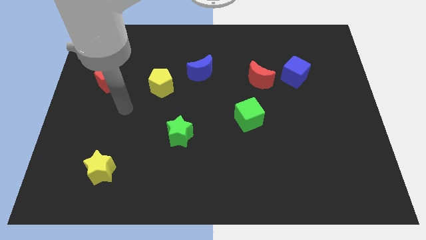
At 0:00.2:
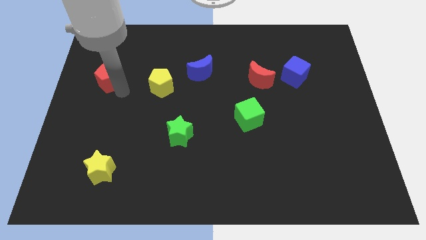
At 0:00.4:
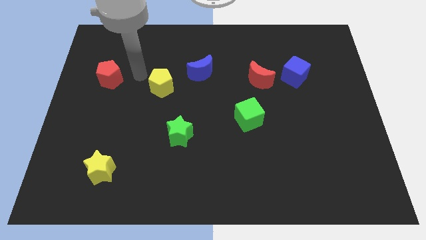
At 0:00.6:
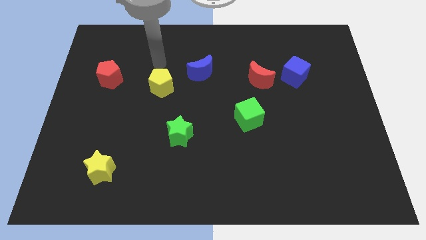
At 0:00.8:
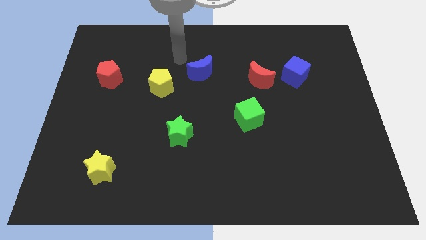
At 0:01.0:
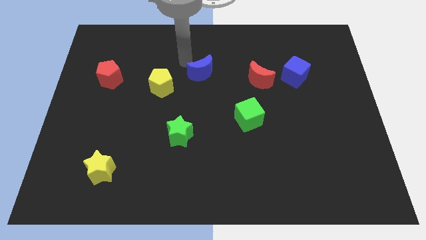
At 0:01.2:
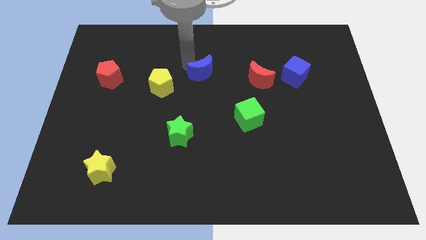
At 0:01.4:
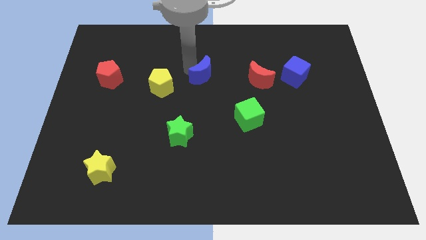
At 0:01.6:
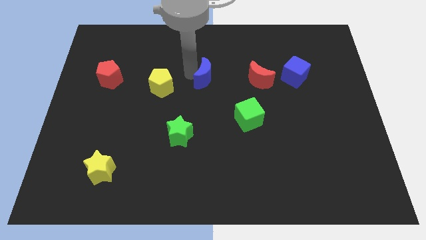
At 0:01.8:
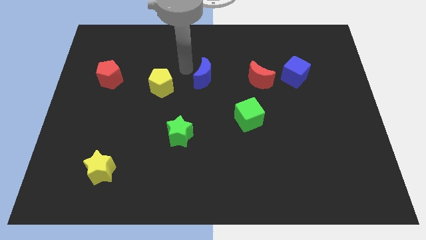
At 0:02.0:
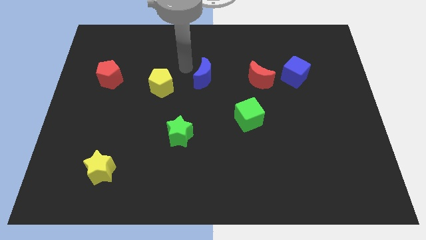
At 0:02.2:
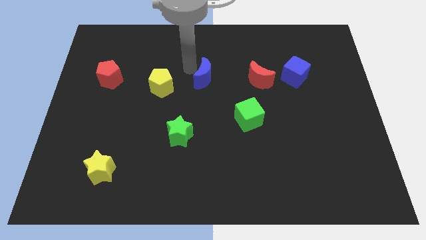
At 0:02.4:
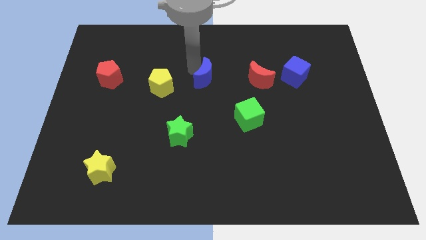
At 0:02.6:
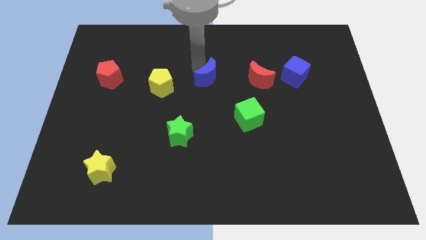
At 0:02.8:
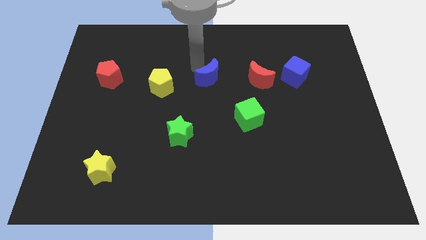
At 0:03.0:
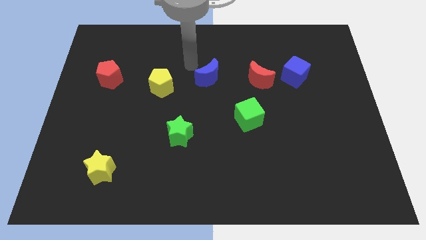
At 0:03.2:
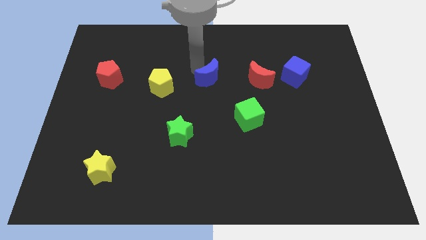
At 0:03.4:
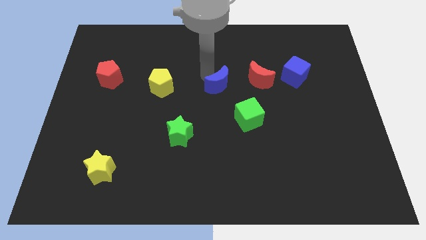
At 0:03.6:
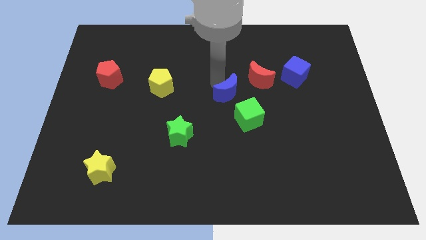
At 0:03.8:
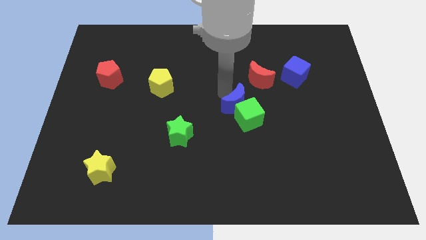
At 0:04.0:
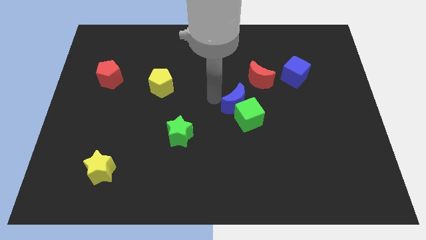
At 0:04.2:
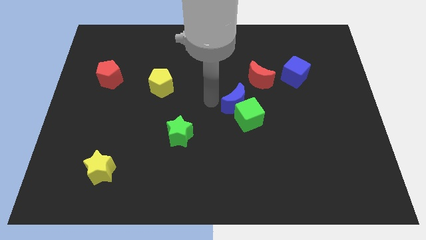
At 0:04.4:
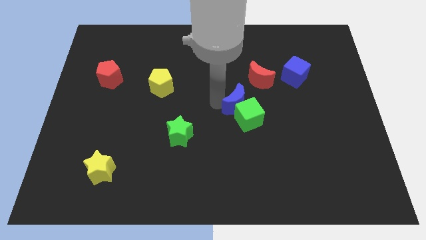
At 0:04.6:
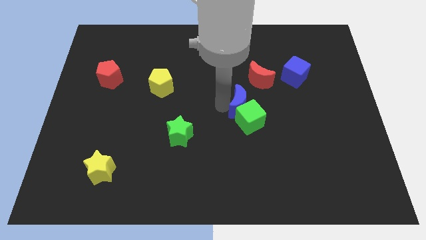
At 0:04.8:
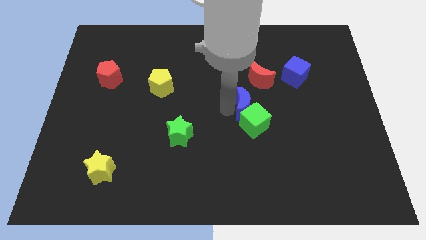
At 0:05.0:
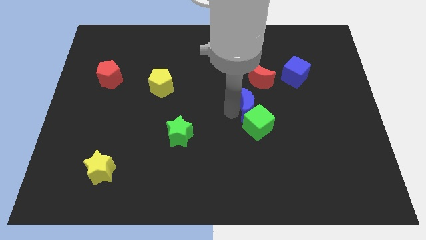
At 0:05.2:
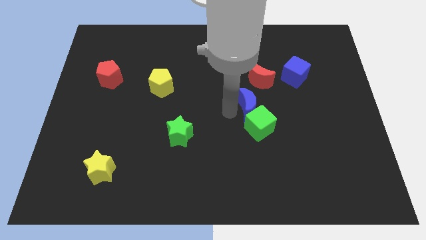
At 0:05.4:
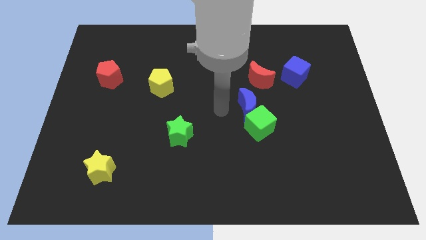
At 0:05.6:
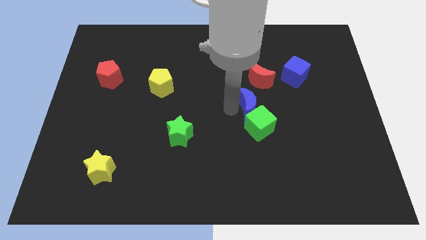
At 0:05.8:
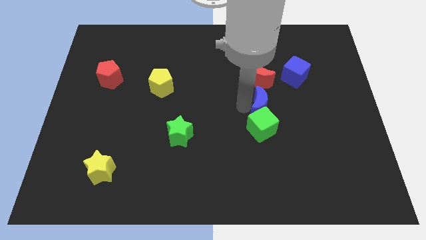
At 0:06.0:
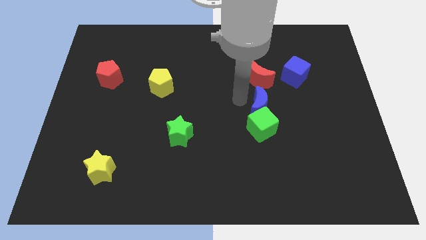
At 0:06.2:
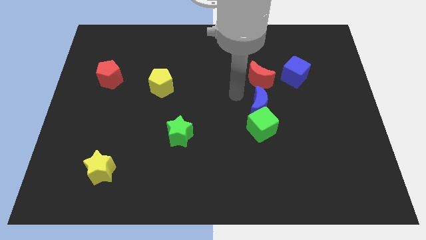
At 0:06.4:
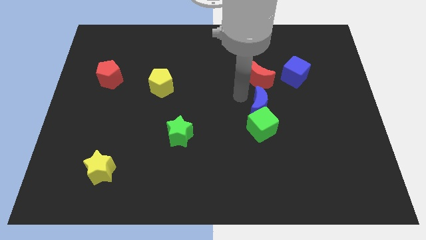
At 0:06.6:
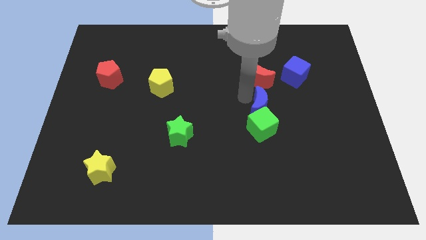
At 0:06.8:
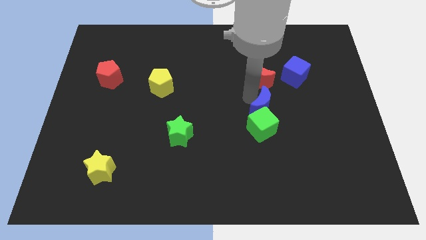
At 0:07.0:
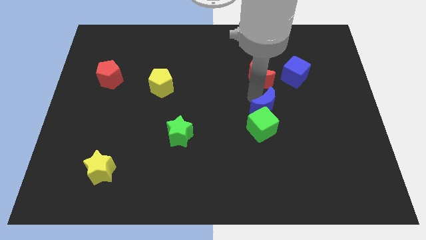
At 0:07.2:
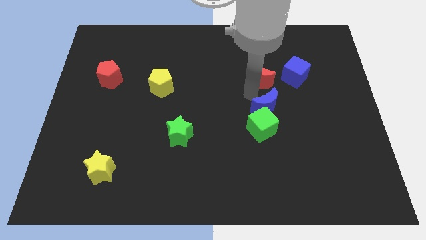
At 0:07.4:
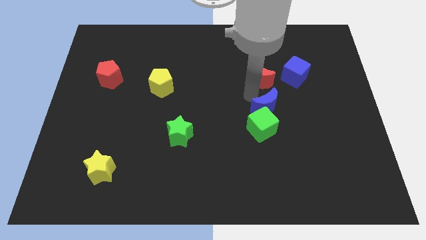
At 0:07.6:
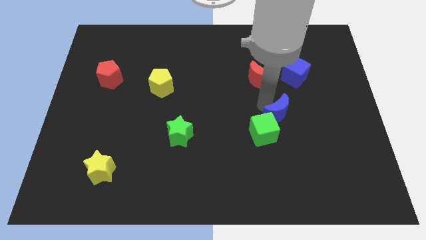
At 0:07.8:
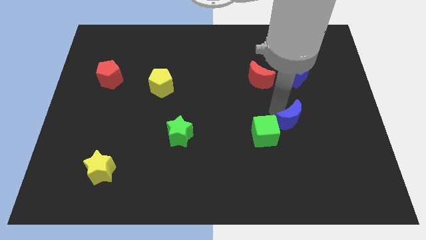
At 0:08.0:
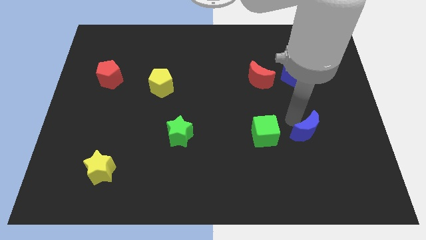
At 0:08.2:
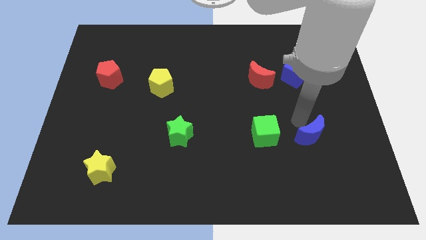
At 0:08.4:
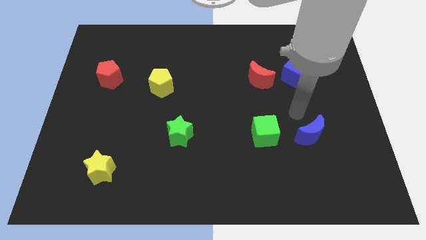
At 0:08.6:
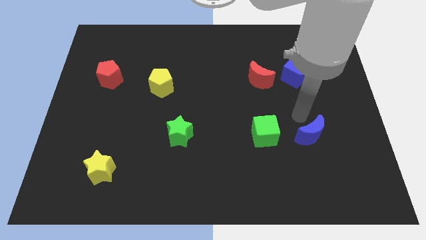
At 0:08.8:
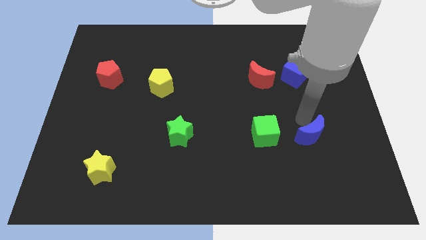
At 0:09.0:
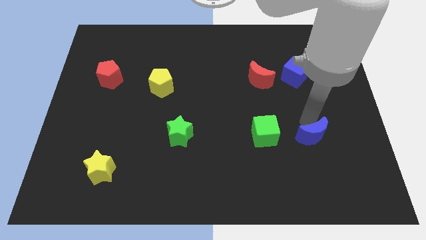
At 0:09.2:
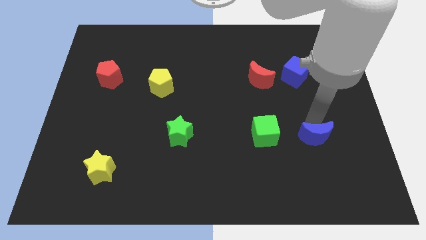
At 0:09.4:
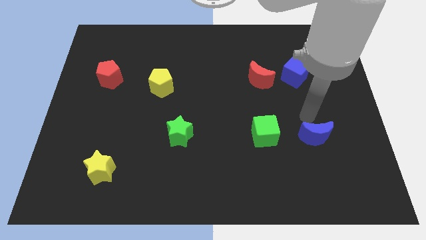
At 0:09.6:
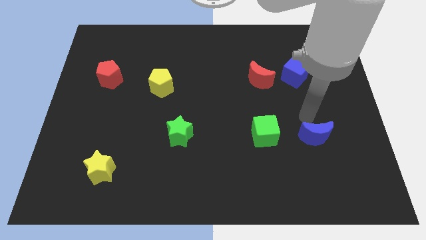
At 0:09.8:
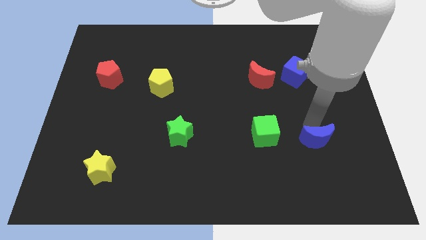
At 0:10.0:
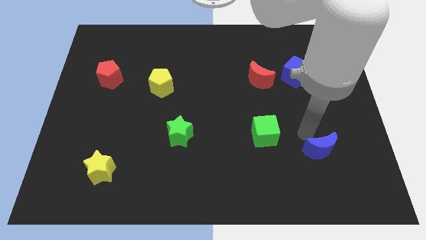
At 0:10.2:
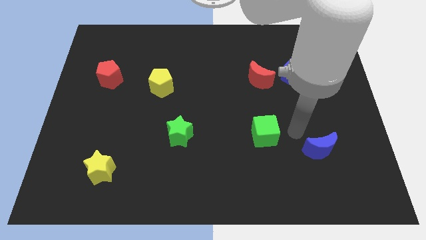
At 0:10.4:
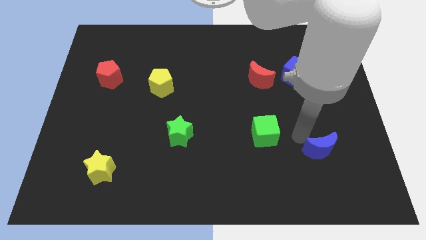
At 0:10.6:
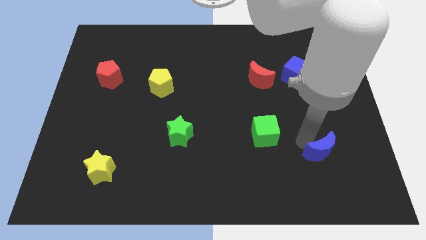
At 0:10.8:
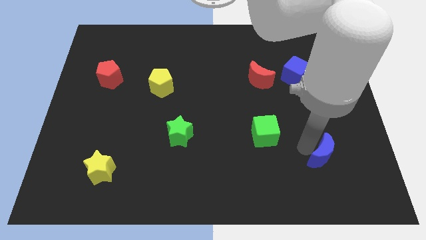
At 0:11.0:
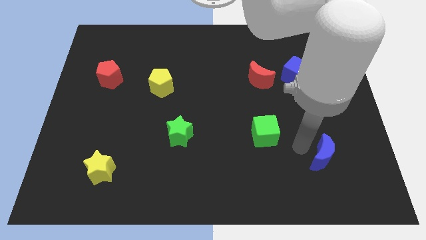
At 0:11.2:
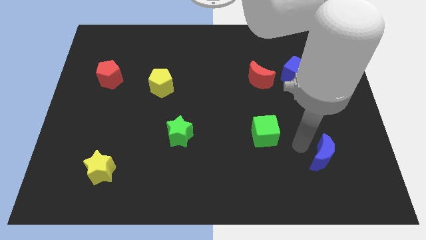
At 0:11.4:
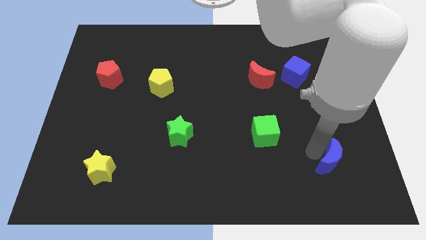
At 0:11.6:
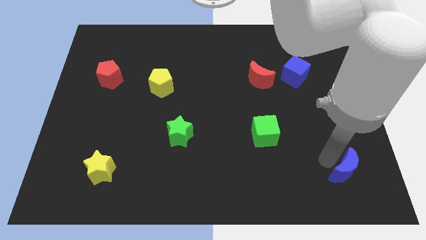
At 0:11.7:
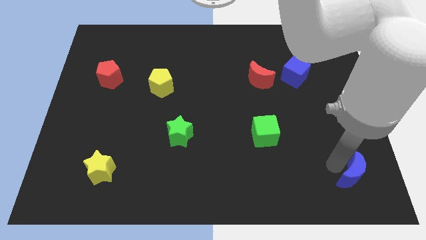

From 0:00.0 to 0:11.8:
put the blue moon to the bottom right

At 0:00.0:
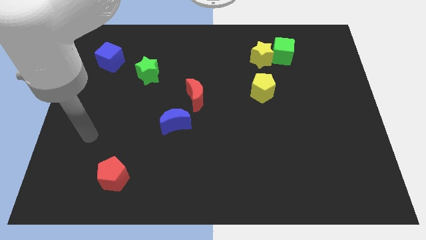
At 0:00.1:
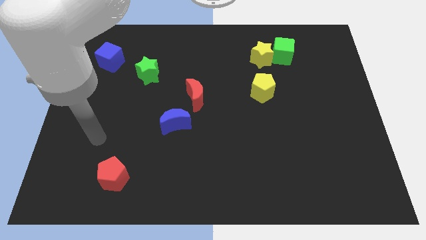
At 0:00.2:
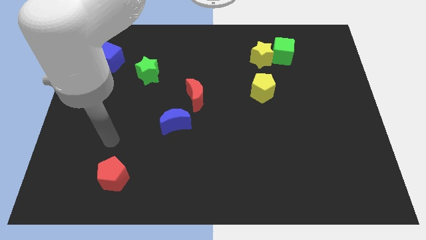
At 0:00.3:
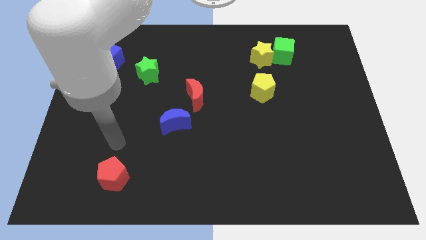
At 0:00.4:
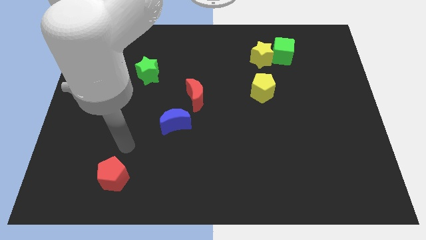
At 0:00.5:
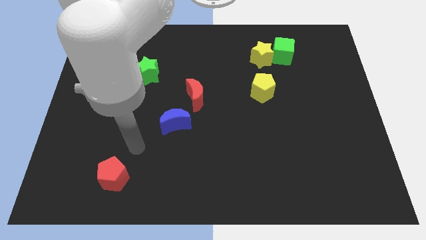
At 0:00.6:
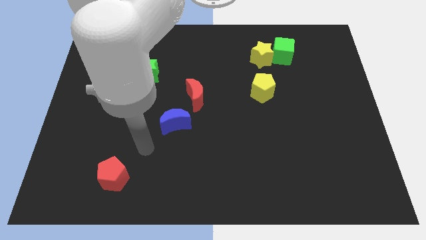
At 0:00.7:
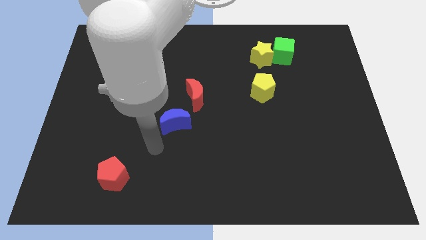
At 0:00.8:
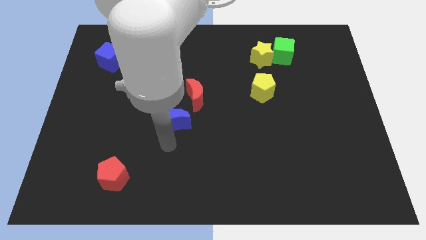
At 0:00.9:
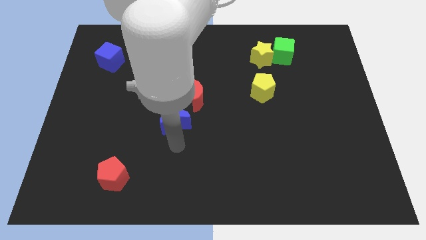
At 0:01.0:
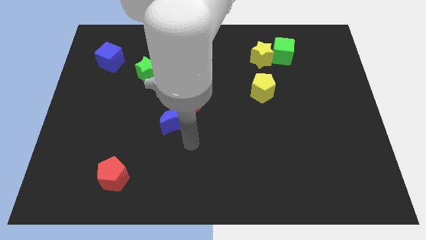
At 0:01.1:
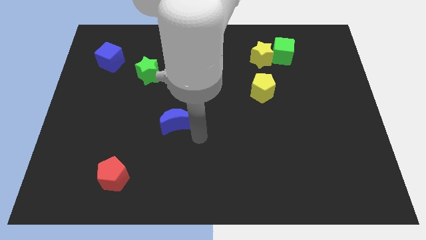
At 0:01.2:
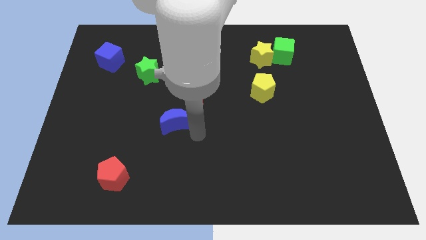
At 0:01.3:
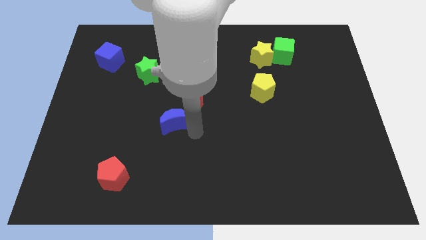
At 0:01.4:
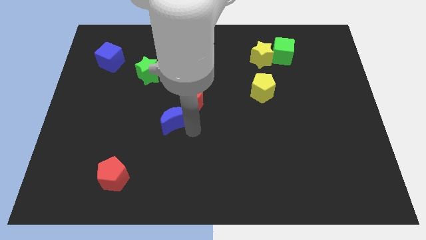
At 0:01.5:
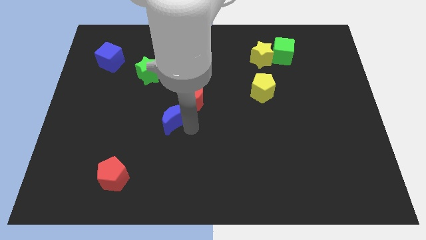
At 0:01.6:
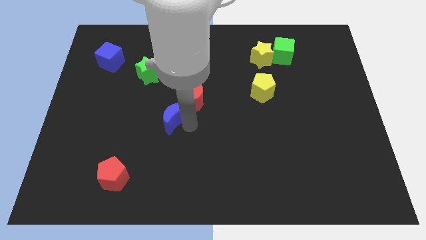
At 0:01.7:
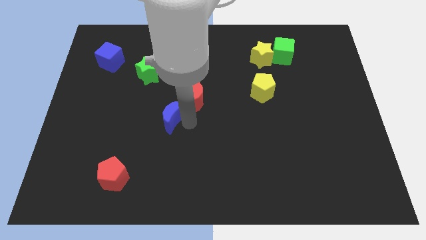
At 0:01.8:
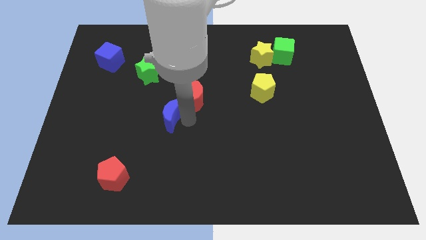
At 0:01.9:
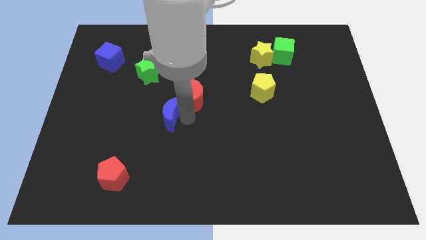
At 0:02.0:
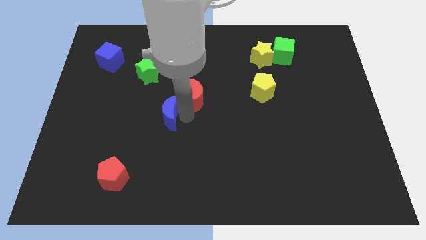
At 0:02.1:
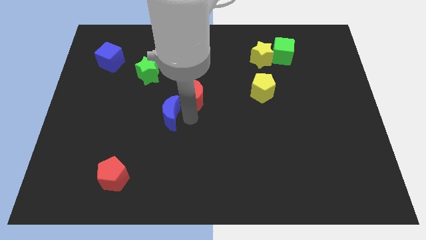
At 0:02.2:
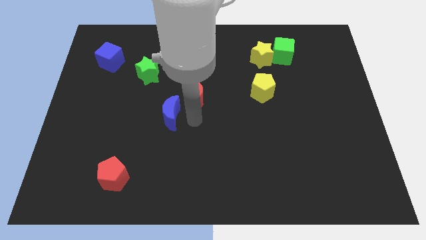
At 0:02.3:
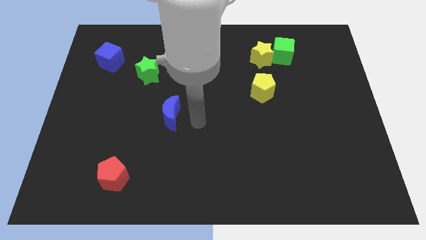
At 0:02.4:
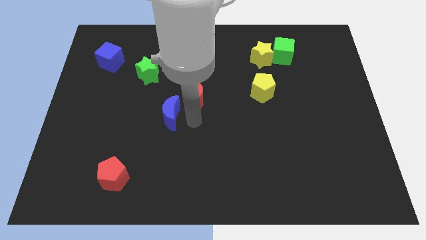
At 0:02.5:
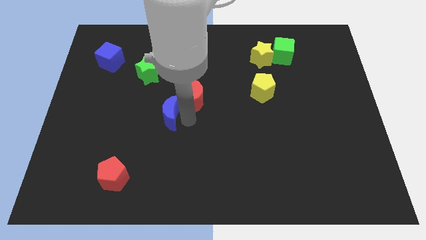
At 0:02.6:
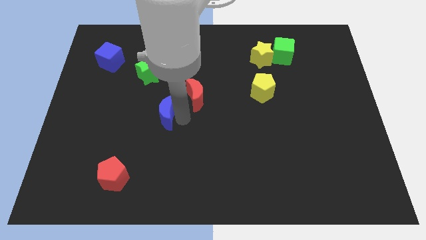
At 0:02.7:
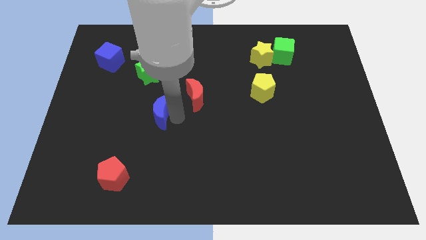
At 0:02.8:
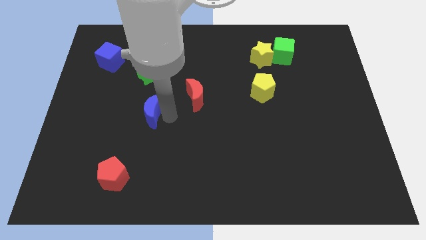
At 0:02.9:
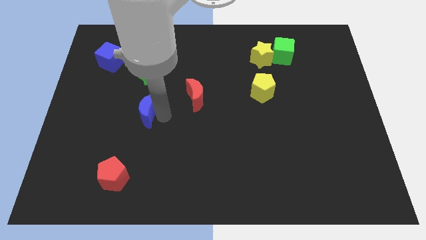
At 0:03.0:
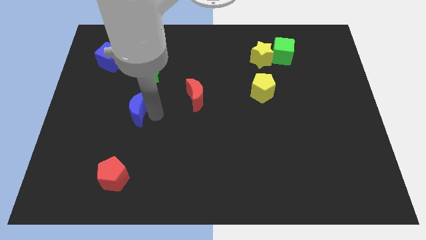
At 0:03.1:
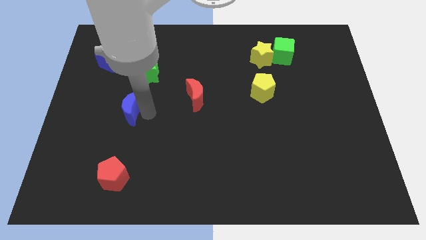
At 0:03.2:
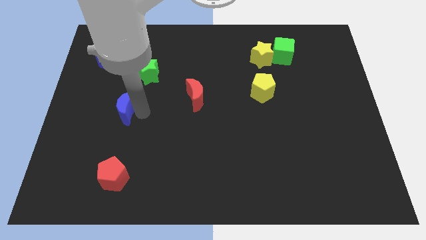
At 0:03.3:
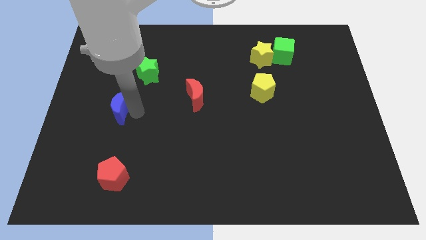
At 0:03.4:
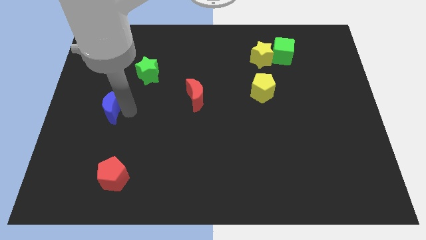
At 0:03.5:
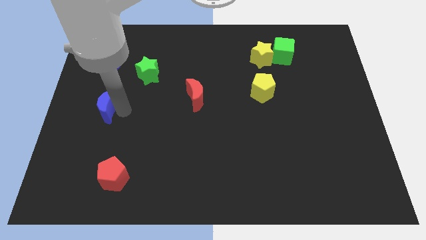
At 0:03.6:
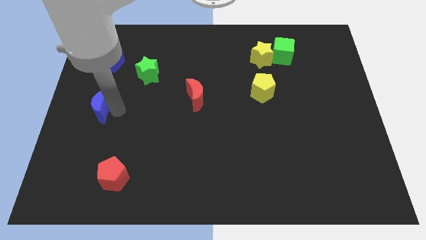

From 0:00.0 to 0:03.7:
slide the blue moon to the left side of the board
